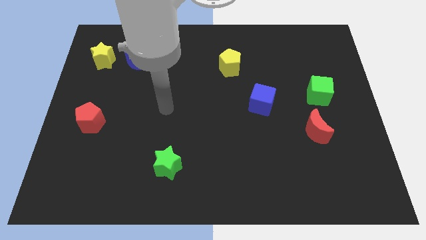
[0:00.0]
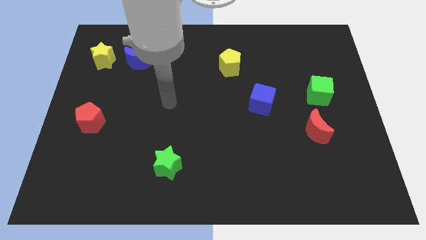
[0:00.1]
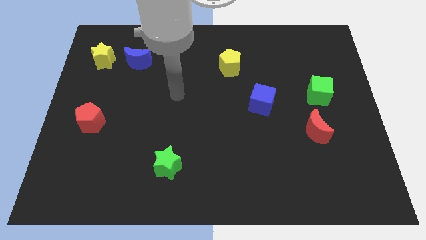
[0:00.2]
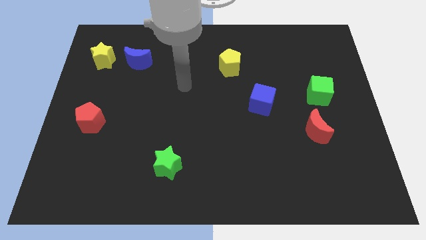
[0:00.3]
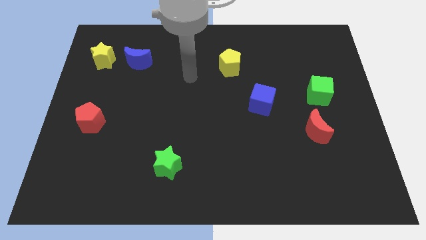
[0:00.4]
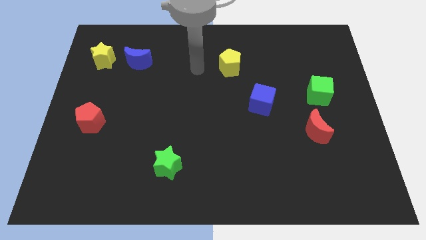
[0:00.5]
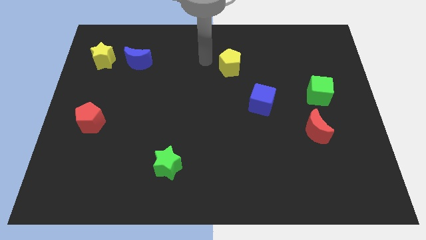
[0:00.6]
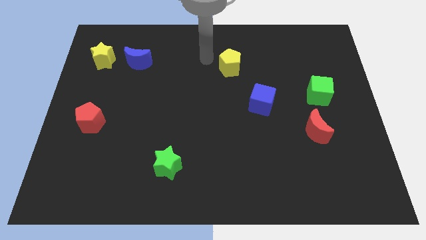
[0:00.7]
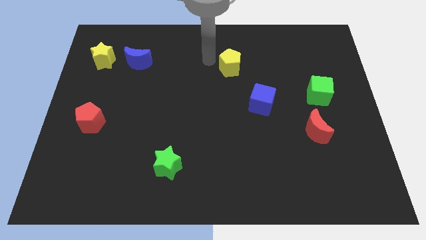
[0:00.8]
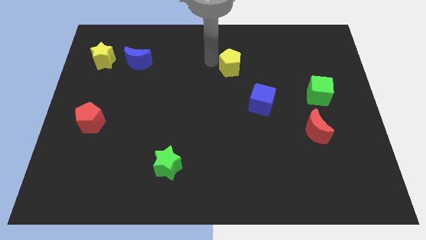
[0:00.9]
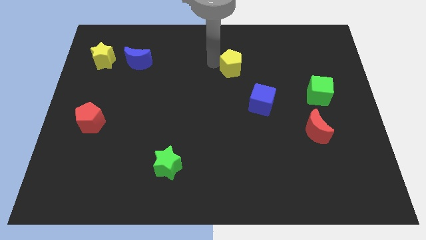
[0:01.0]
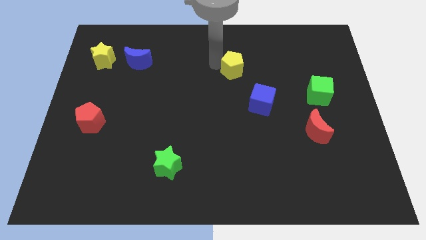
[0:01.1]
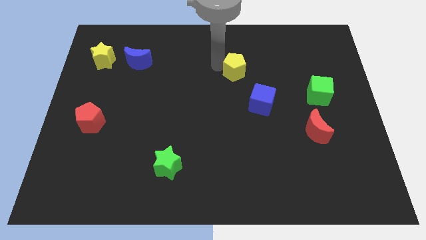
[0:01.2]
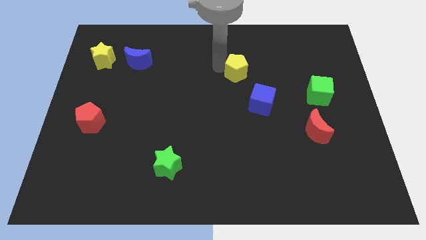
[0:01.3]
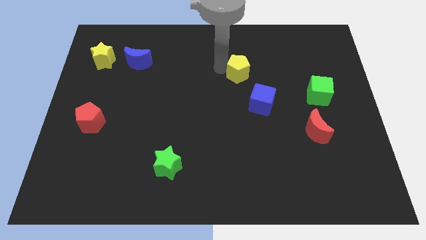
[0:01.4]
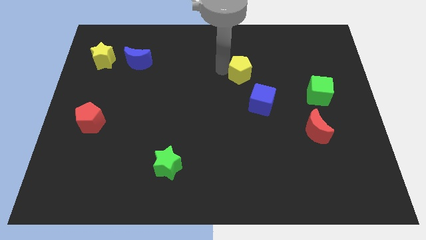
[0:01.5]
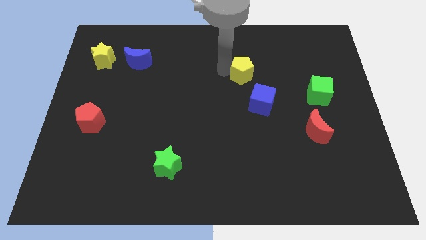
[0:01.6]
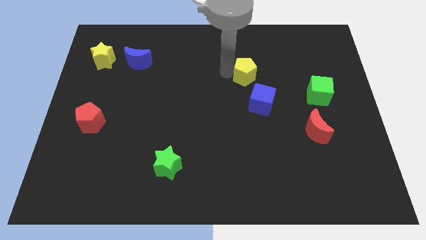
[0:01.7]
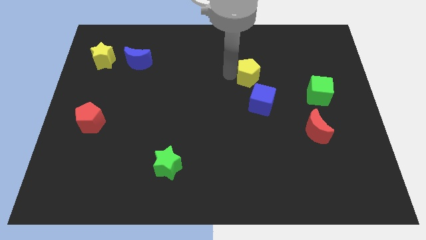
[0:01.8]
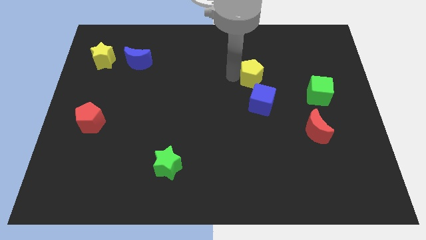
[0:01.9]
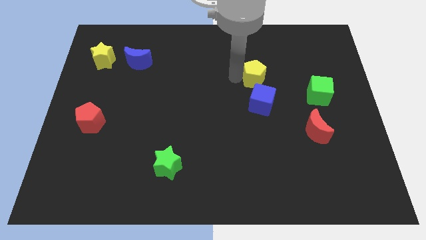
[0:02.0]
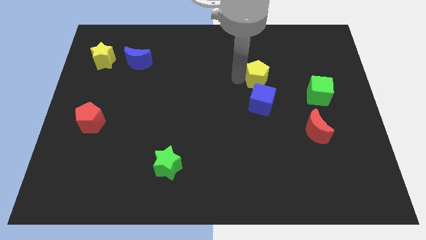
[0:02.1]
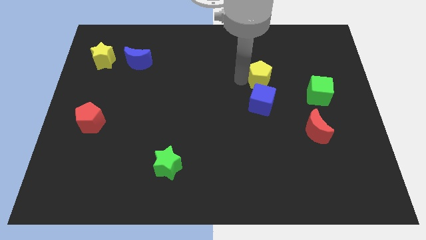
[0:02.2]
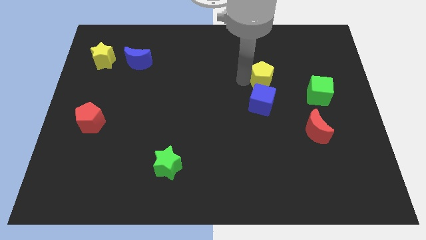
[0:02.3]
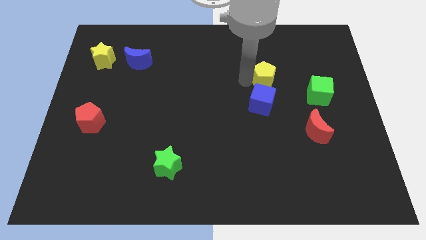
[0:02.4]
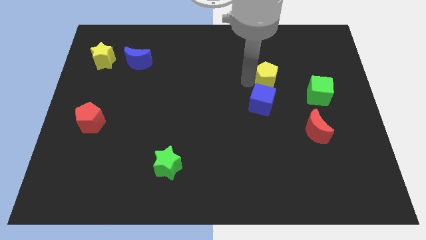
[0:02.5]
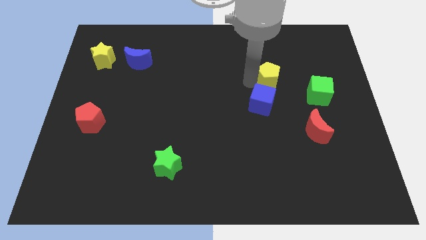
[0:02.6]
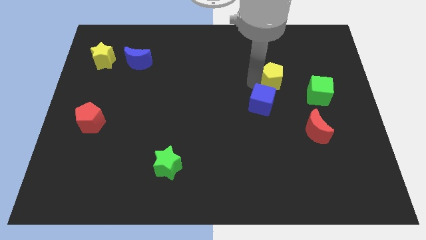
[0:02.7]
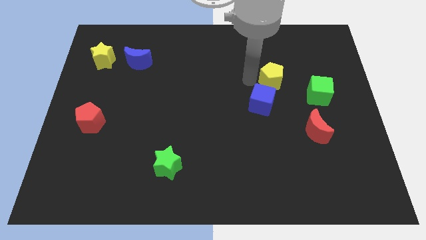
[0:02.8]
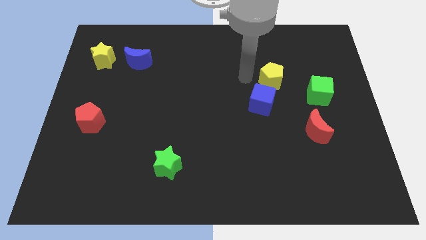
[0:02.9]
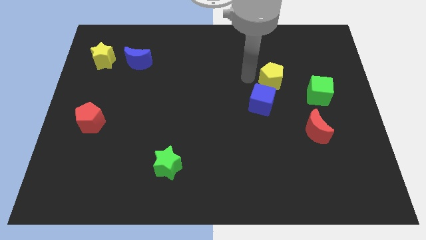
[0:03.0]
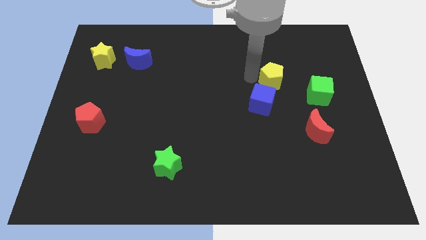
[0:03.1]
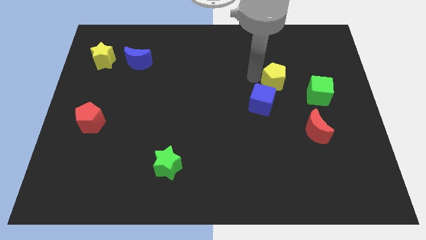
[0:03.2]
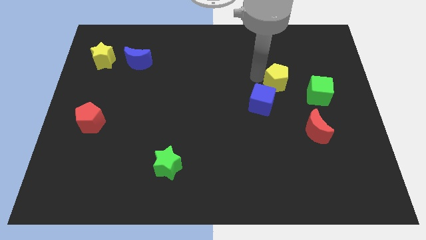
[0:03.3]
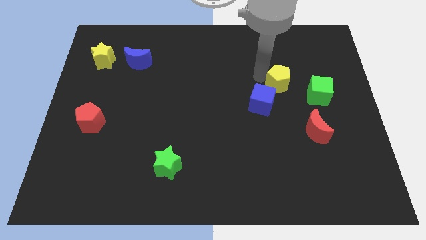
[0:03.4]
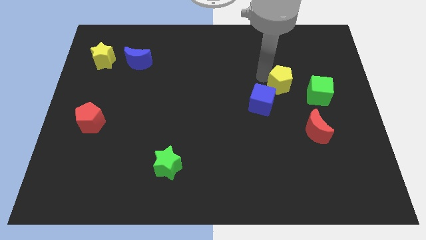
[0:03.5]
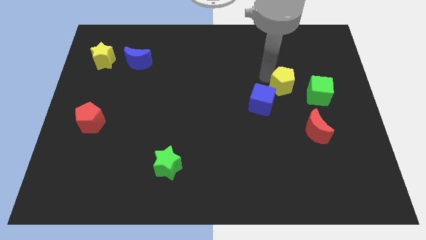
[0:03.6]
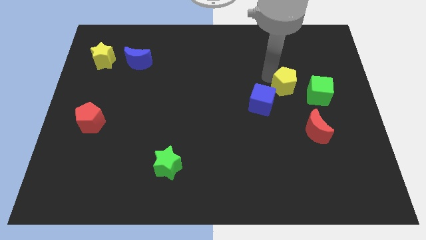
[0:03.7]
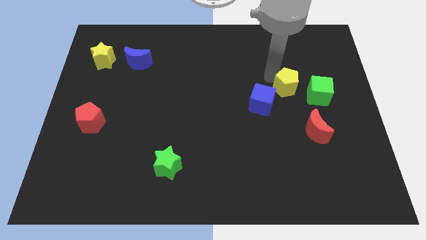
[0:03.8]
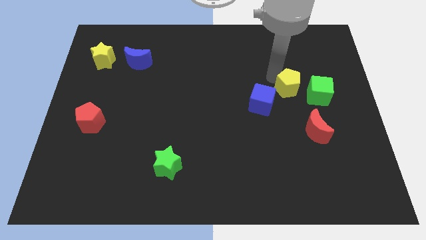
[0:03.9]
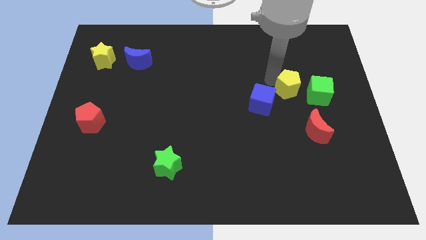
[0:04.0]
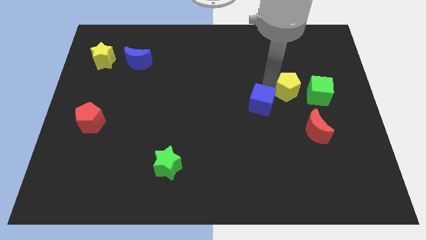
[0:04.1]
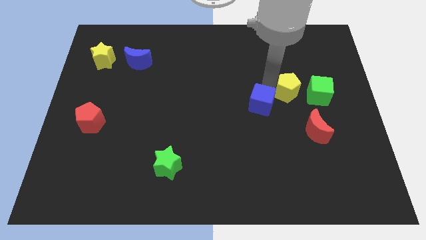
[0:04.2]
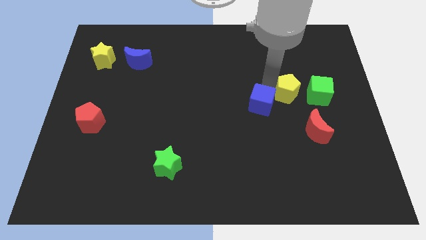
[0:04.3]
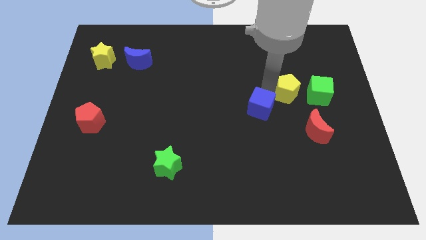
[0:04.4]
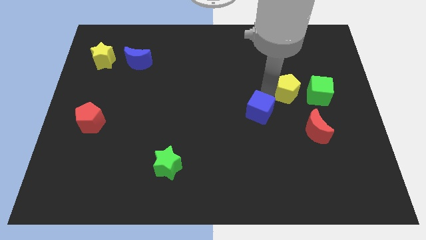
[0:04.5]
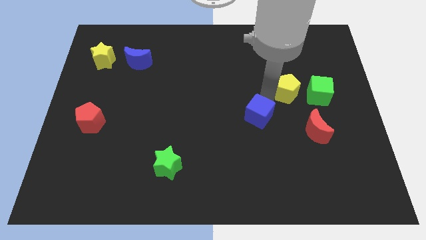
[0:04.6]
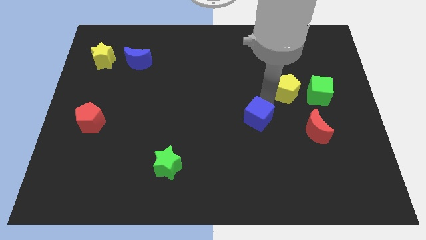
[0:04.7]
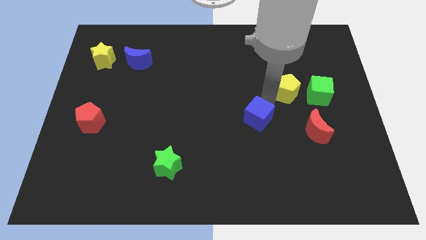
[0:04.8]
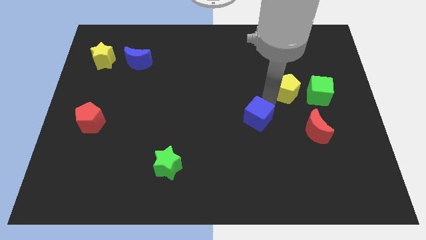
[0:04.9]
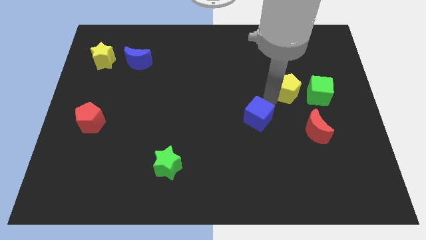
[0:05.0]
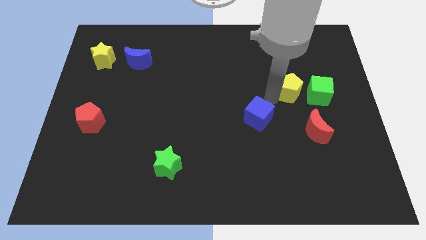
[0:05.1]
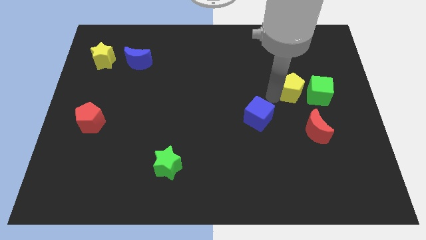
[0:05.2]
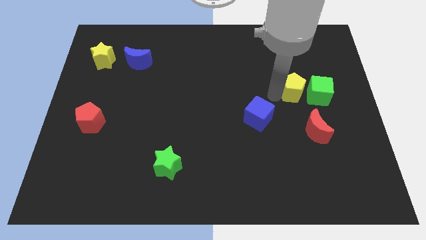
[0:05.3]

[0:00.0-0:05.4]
move the yellow pentagon towards the green cube

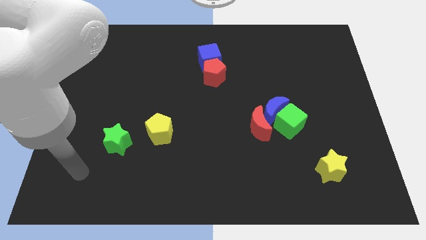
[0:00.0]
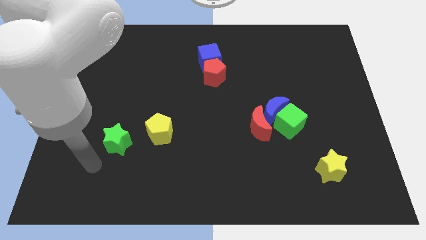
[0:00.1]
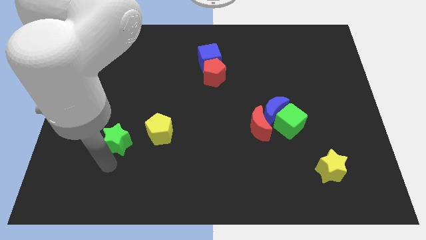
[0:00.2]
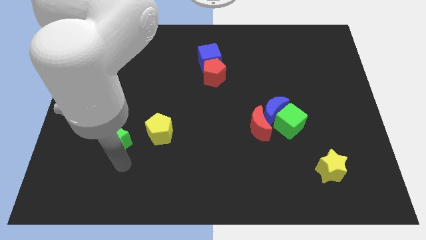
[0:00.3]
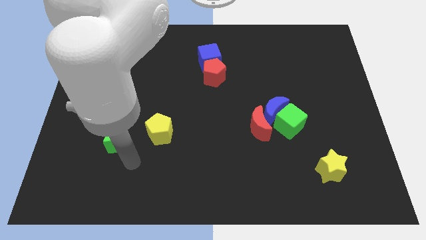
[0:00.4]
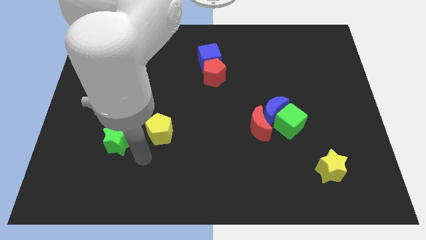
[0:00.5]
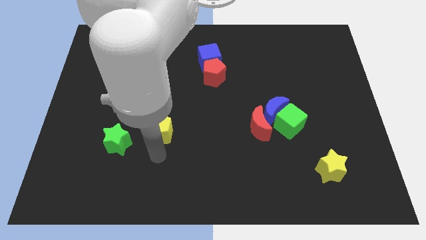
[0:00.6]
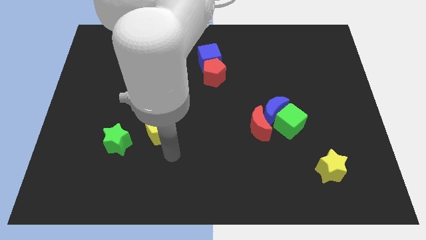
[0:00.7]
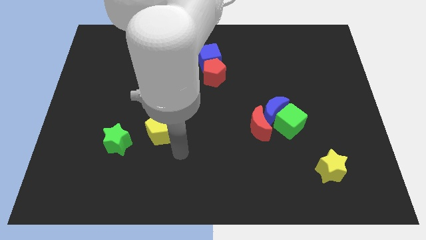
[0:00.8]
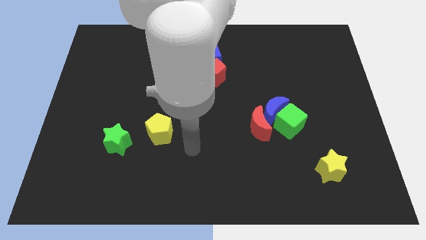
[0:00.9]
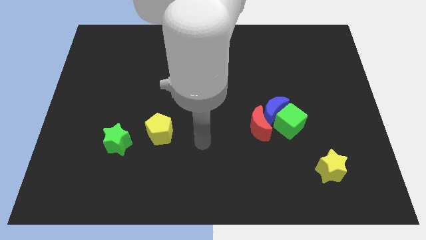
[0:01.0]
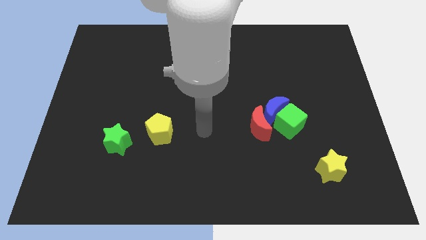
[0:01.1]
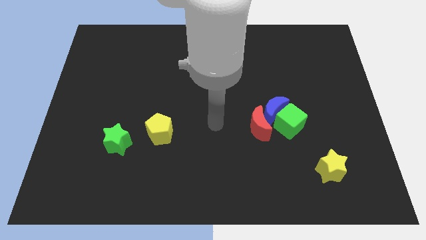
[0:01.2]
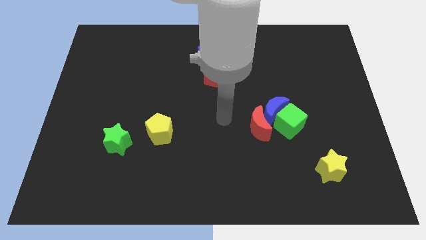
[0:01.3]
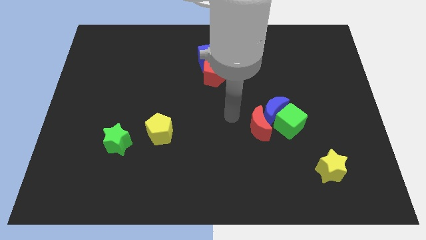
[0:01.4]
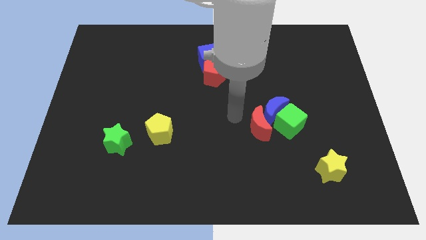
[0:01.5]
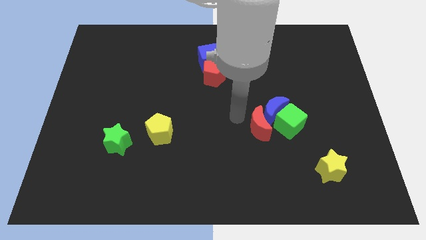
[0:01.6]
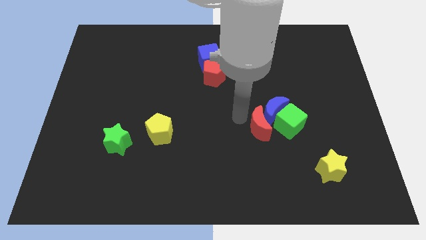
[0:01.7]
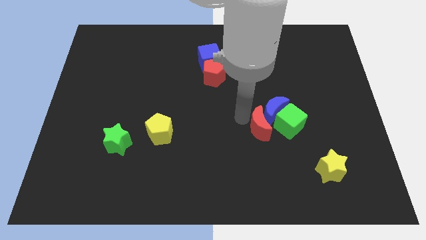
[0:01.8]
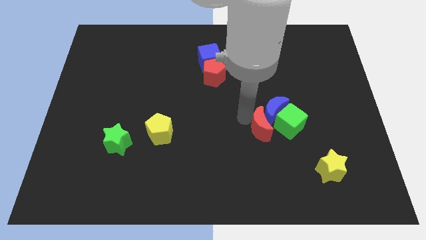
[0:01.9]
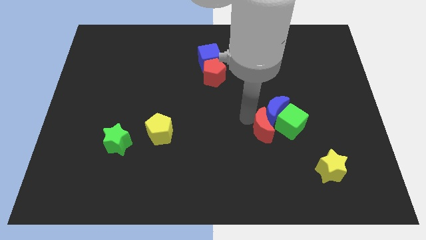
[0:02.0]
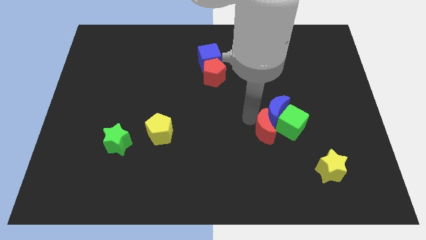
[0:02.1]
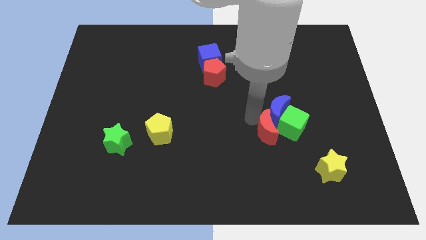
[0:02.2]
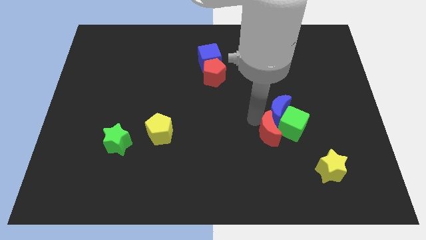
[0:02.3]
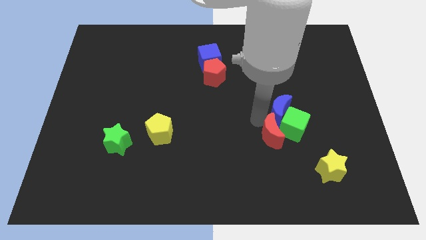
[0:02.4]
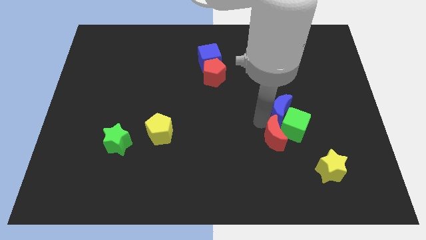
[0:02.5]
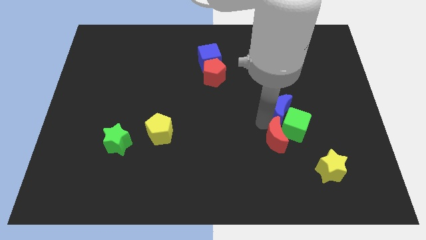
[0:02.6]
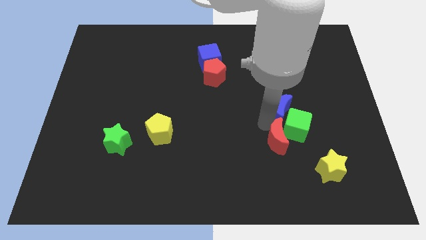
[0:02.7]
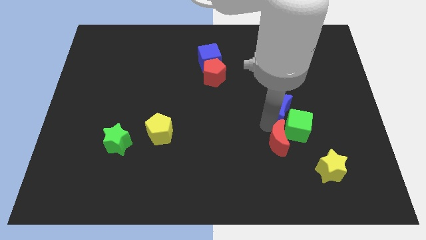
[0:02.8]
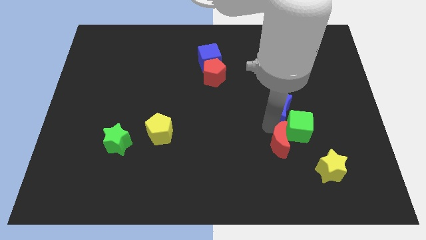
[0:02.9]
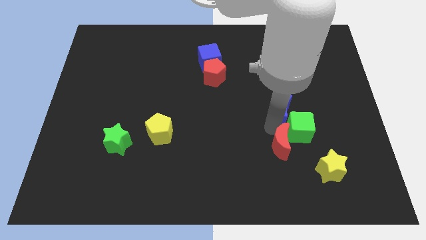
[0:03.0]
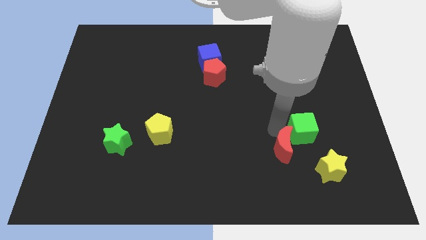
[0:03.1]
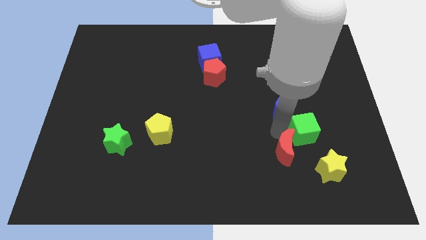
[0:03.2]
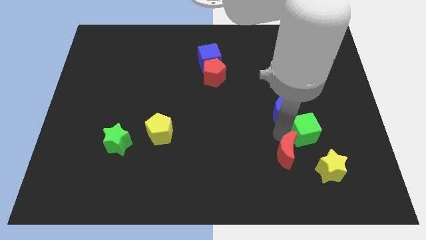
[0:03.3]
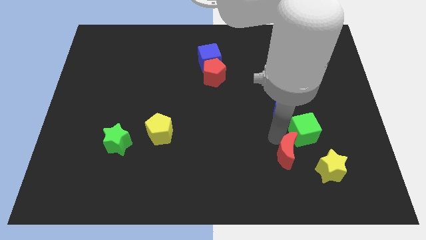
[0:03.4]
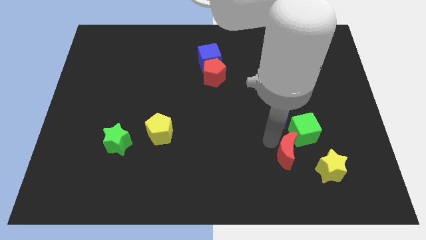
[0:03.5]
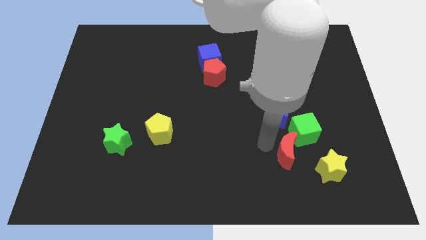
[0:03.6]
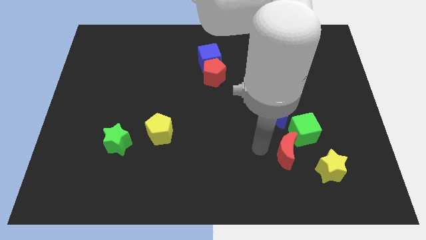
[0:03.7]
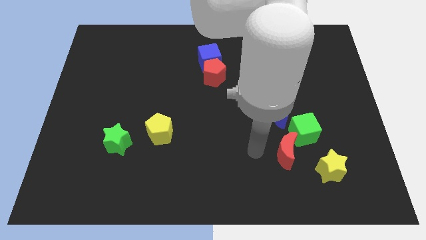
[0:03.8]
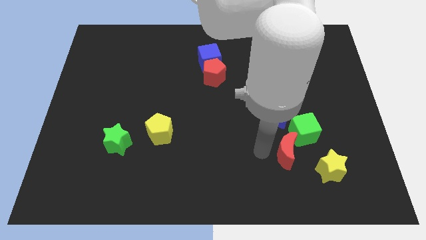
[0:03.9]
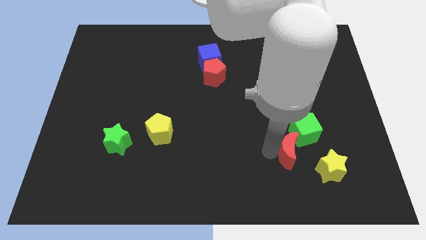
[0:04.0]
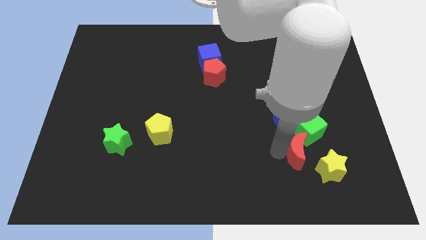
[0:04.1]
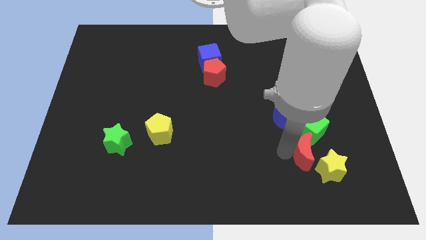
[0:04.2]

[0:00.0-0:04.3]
push the red moon close to the yellow star
